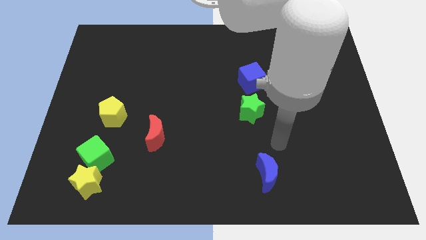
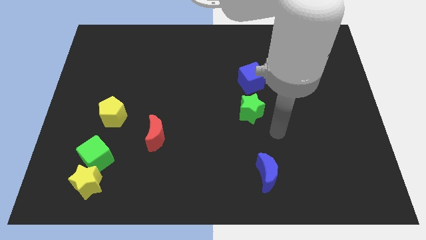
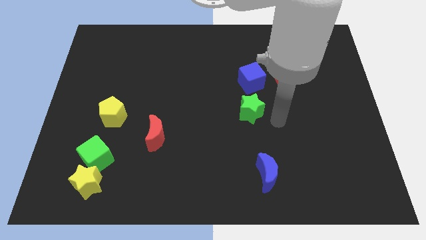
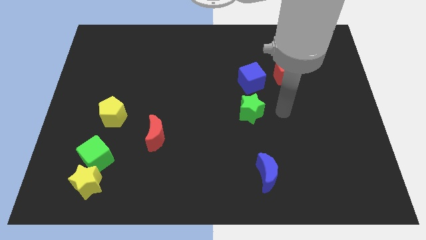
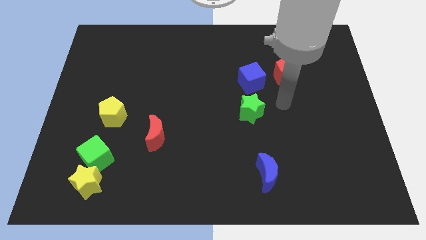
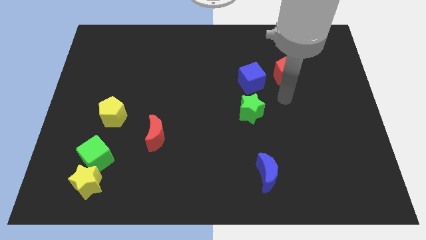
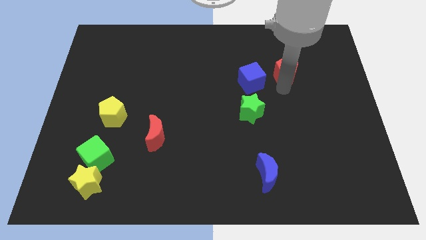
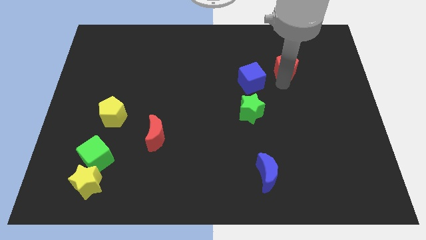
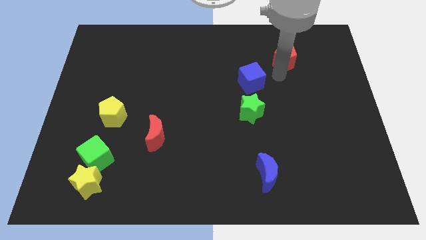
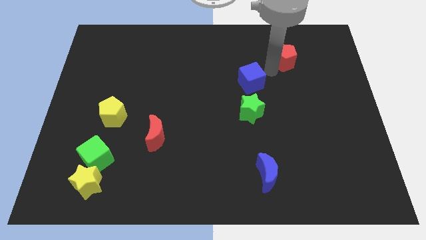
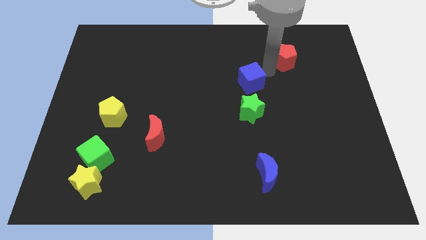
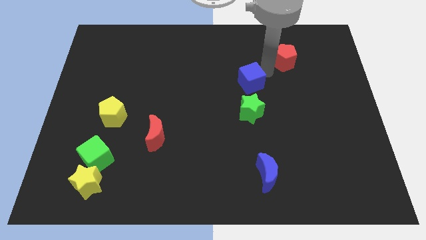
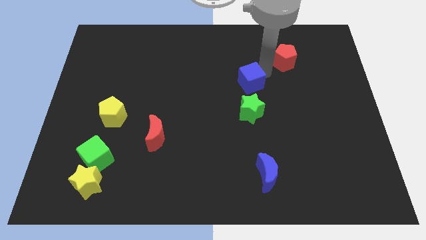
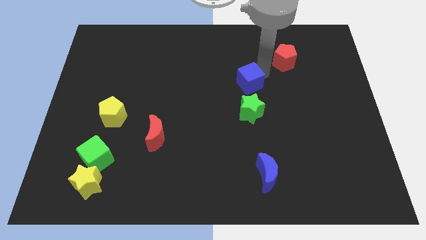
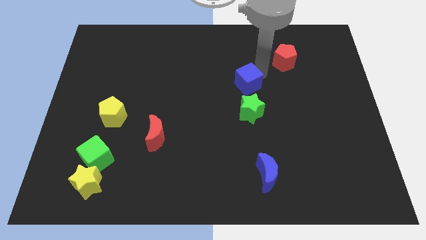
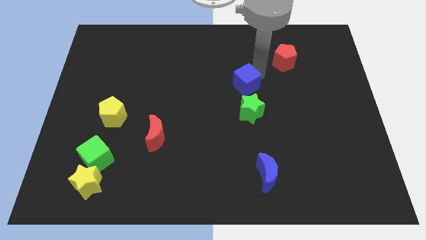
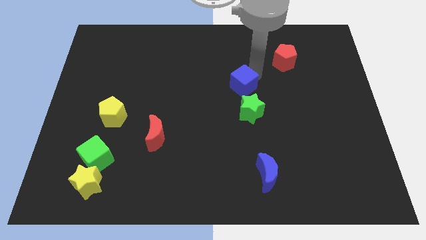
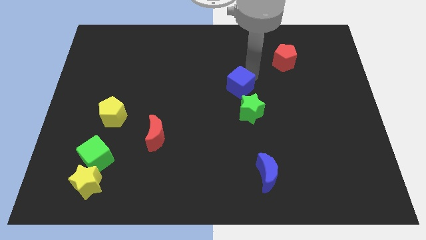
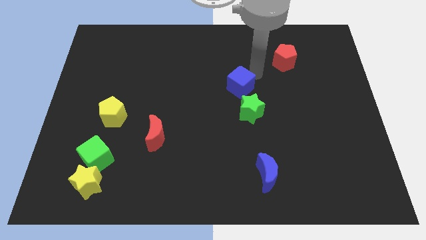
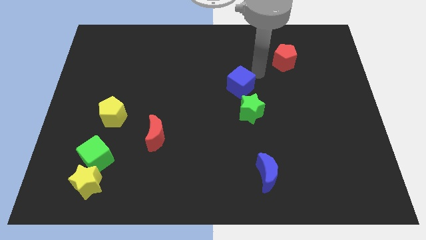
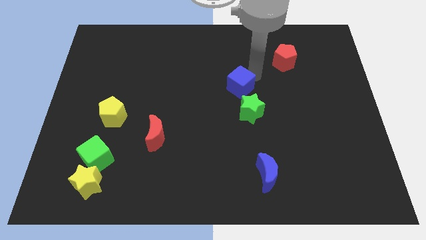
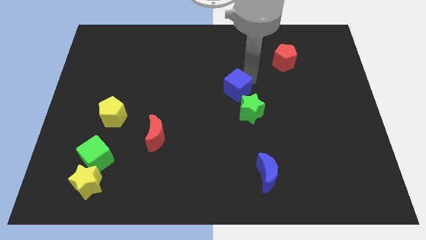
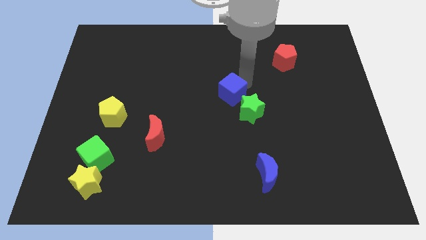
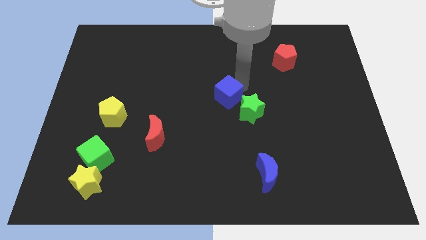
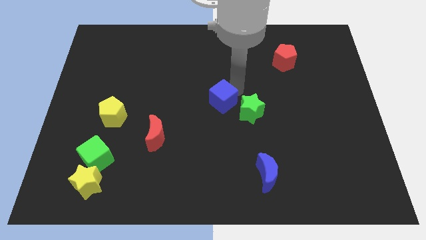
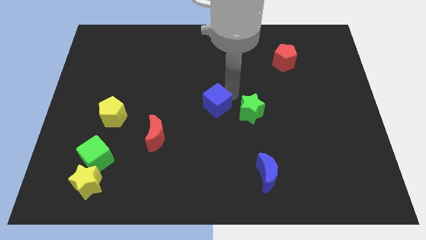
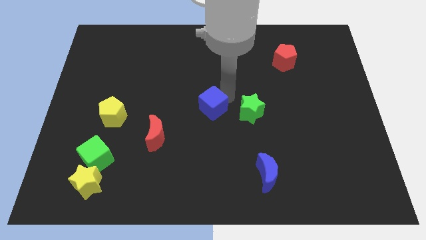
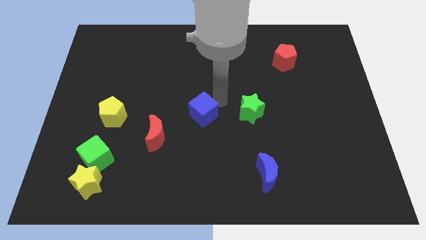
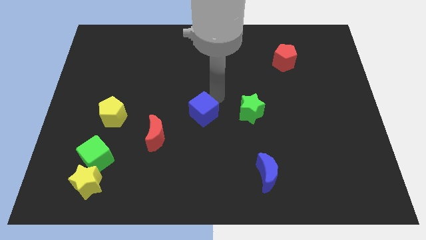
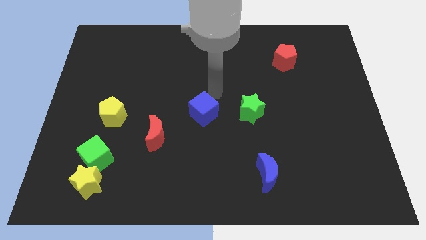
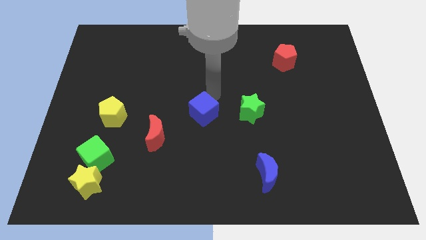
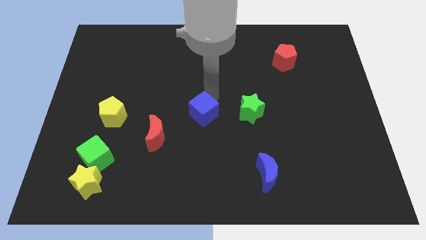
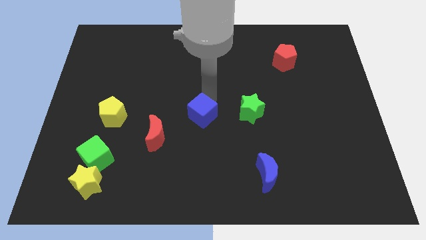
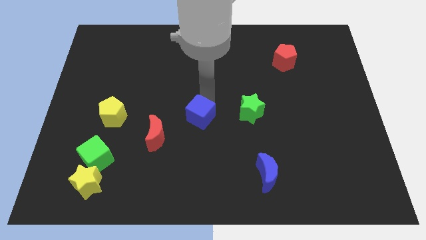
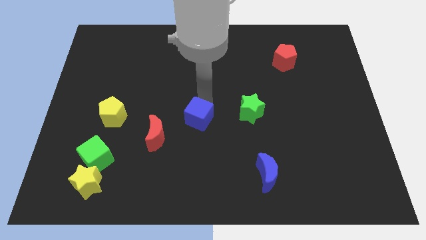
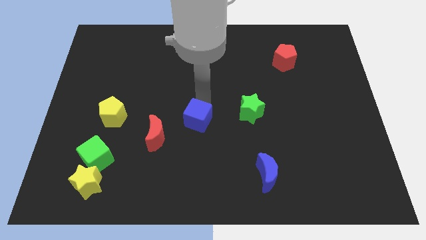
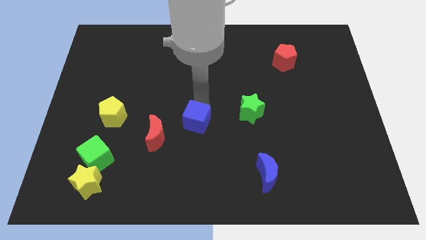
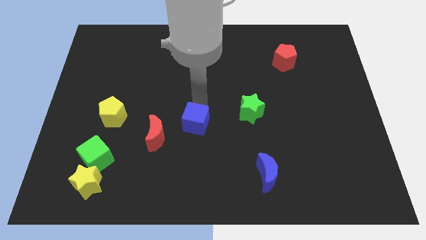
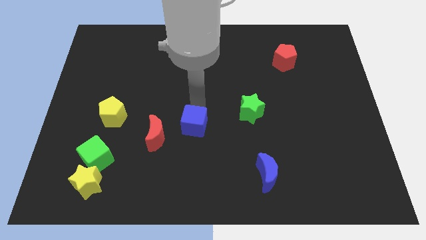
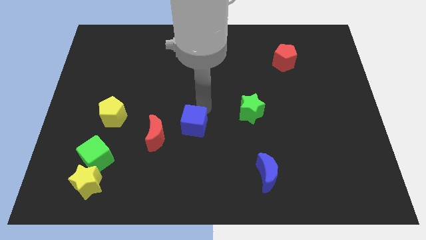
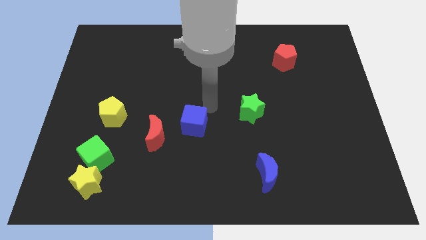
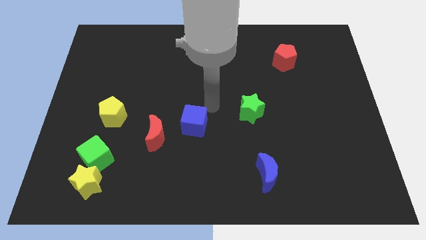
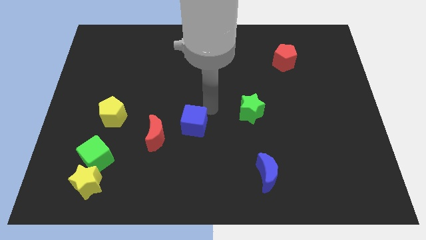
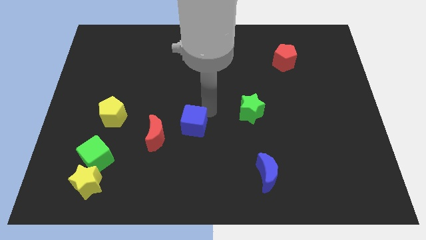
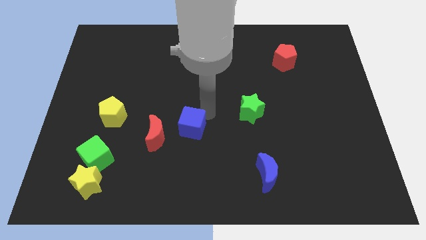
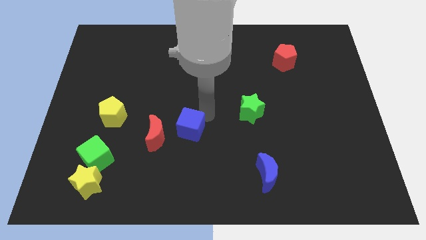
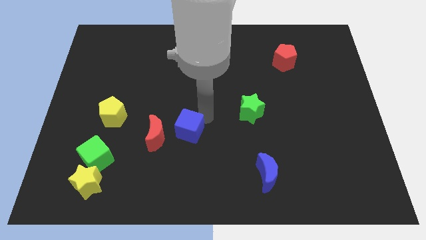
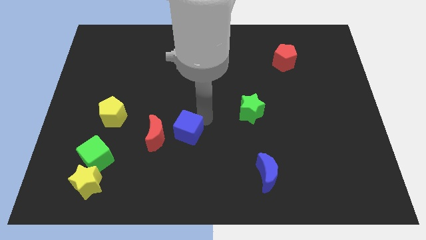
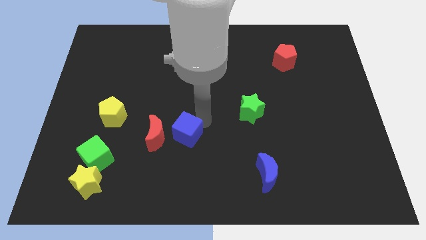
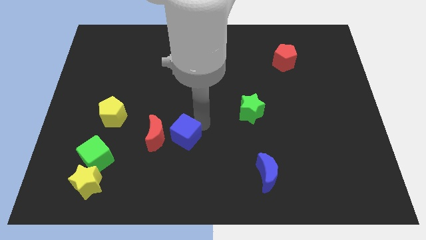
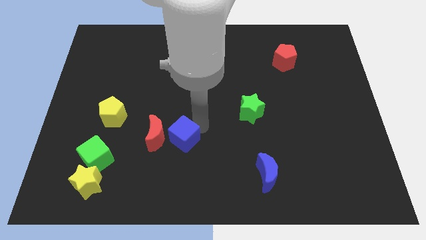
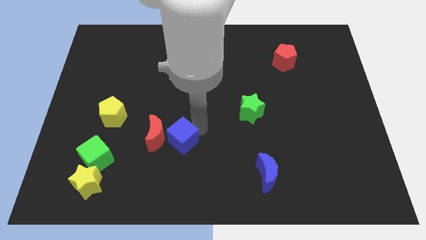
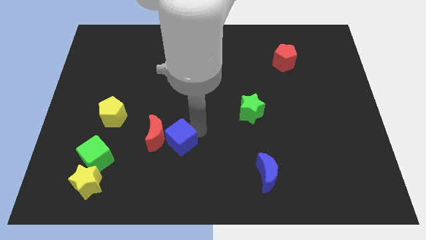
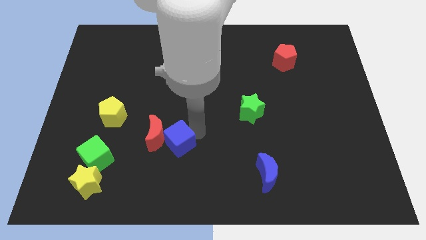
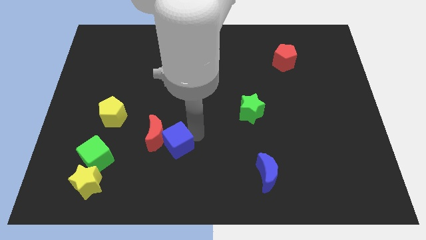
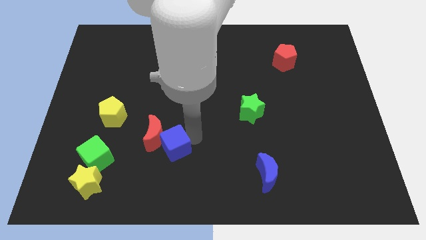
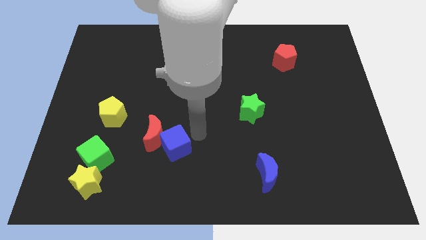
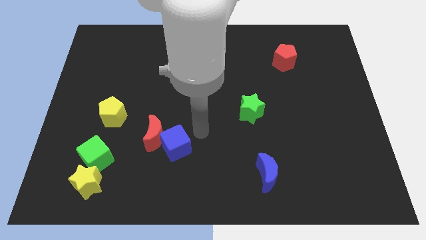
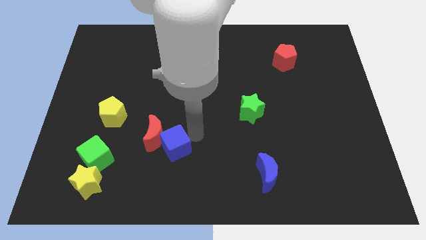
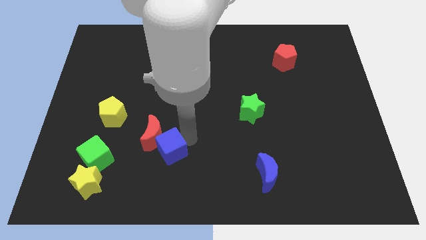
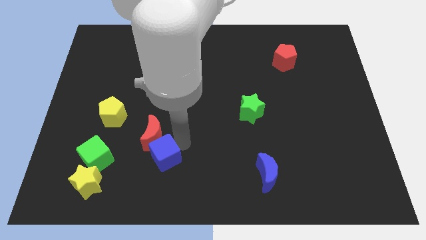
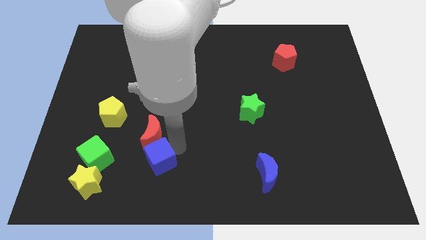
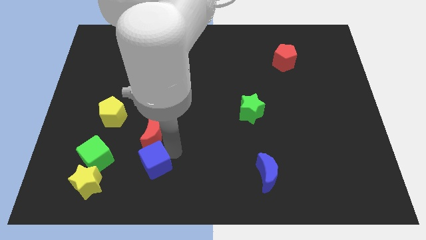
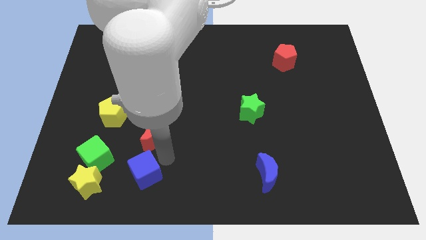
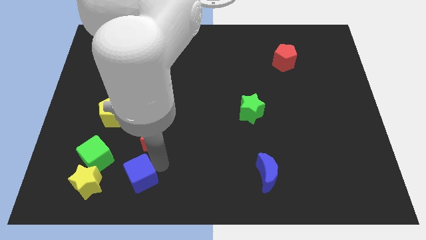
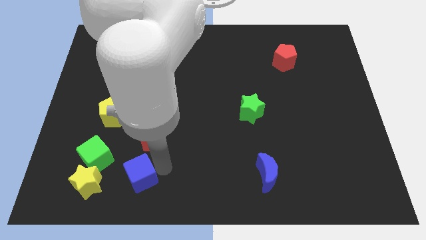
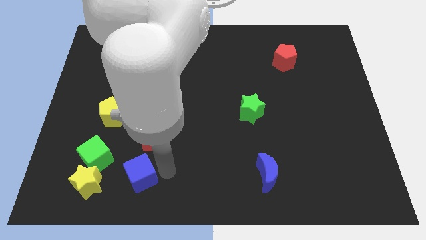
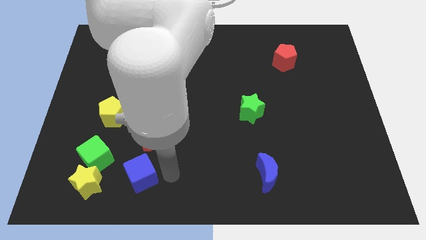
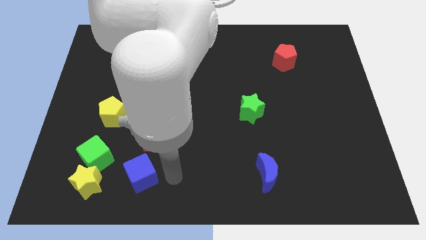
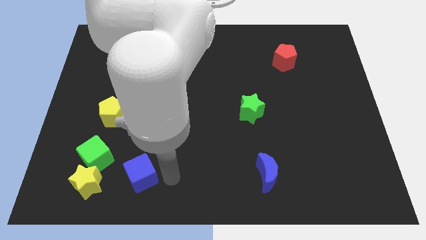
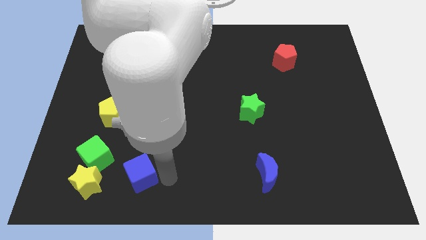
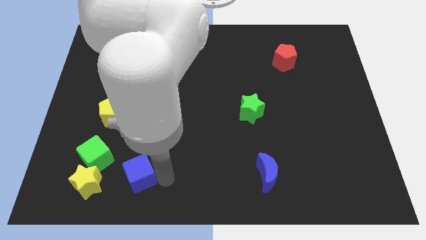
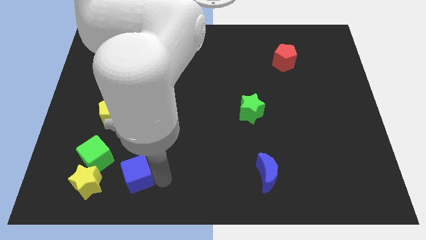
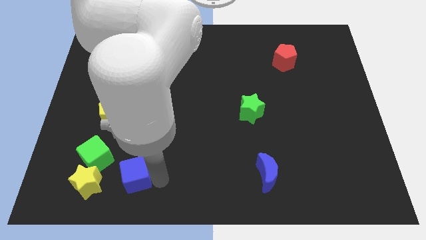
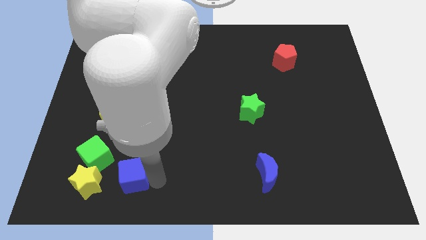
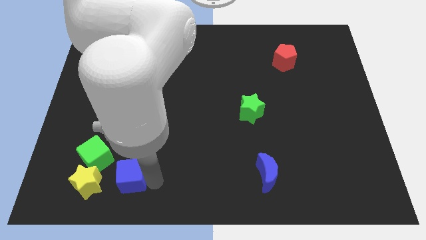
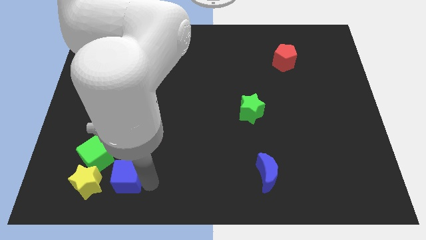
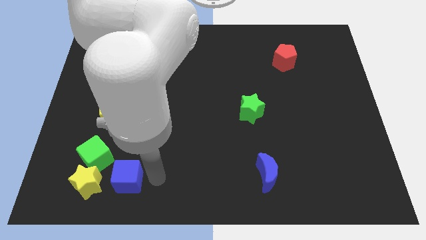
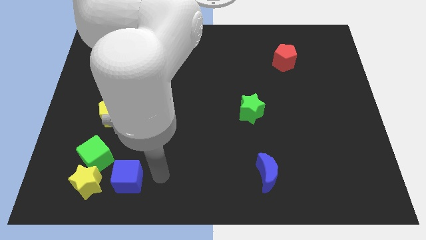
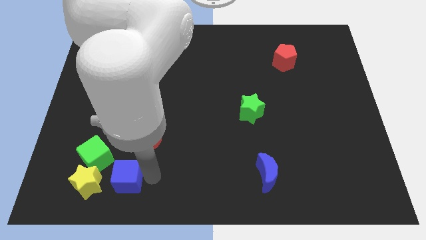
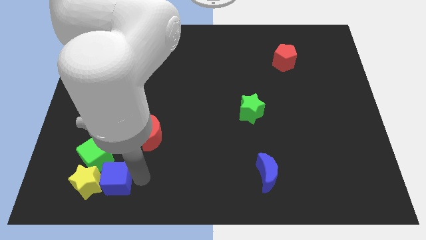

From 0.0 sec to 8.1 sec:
move the blue cube to the yellow star
